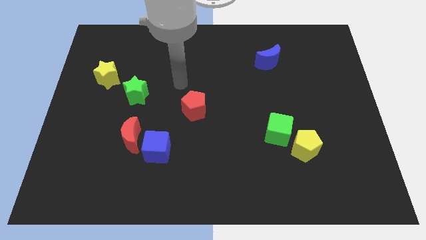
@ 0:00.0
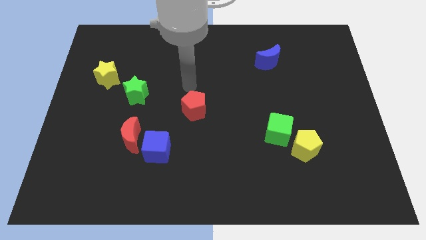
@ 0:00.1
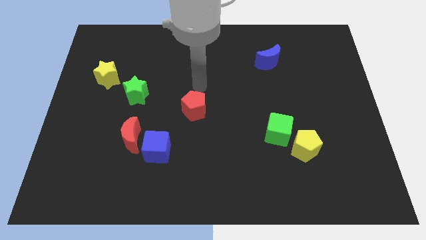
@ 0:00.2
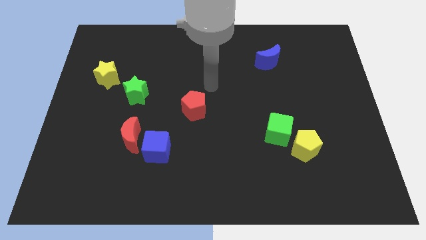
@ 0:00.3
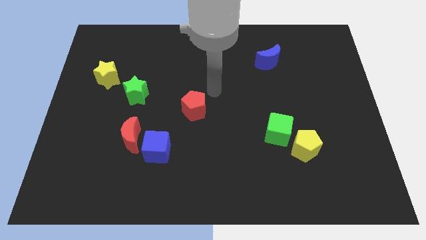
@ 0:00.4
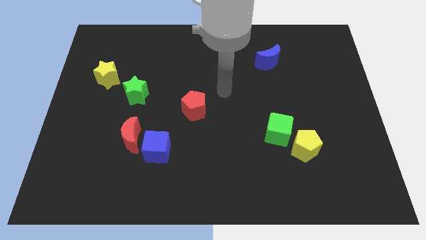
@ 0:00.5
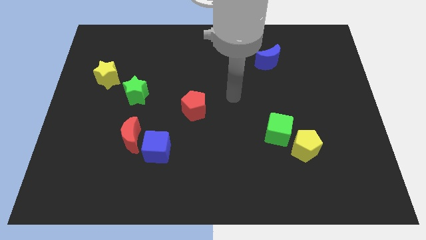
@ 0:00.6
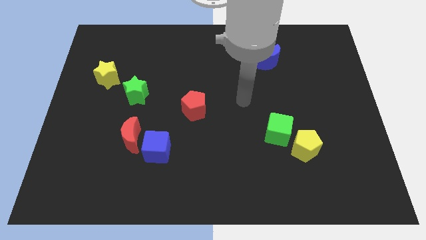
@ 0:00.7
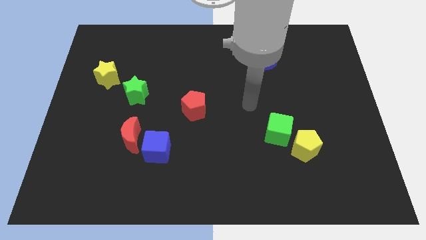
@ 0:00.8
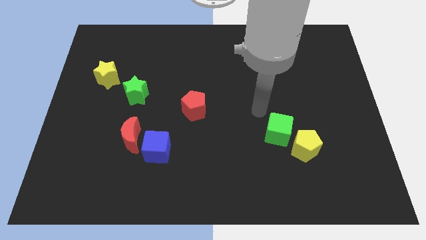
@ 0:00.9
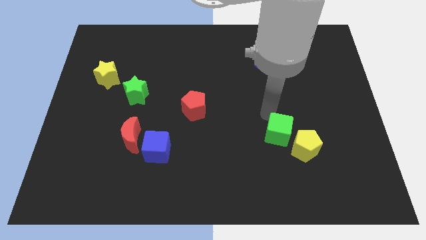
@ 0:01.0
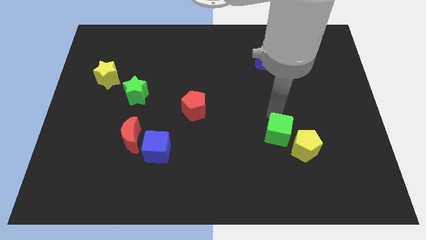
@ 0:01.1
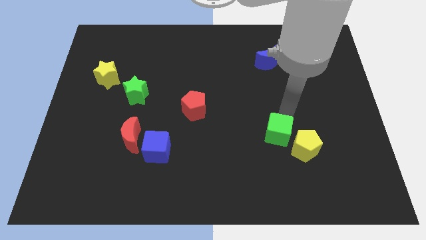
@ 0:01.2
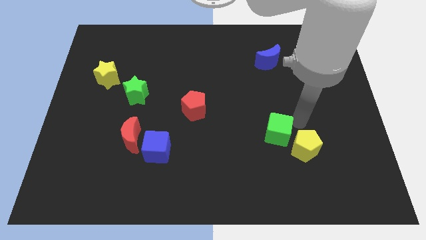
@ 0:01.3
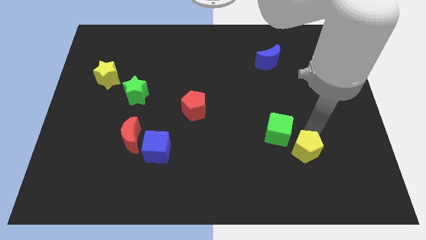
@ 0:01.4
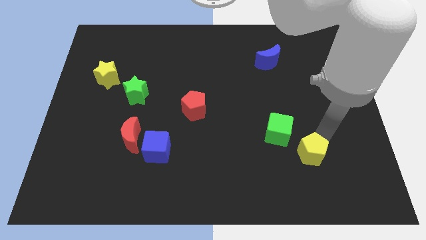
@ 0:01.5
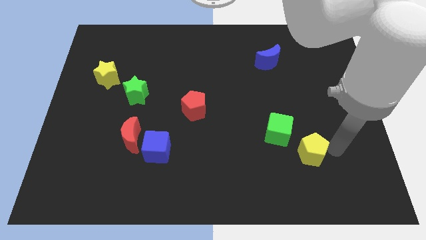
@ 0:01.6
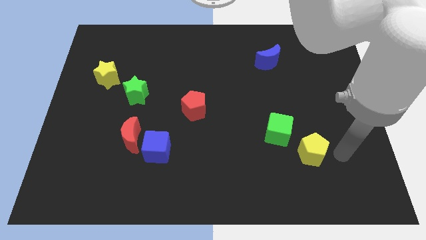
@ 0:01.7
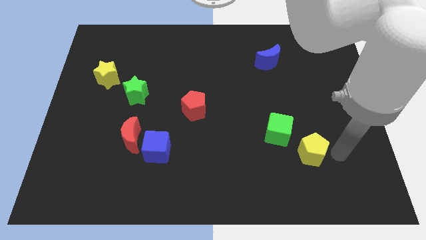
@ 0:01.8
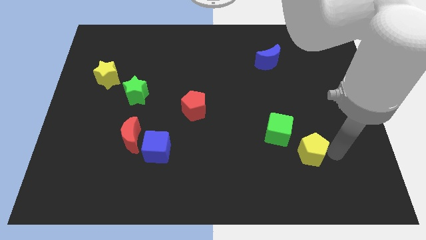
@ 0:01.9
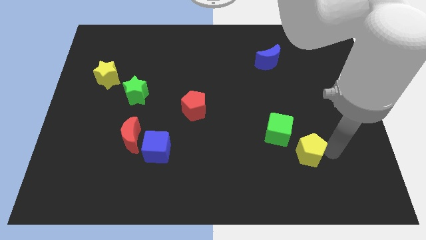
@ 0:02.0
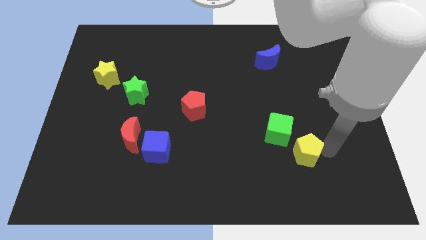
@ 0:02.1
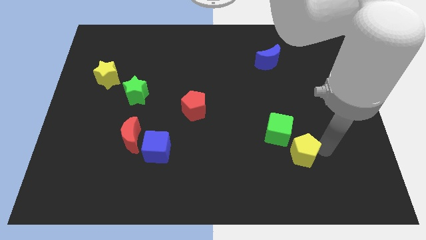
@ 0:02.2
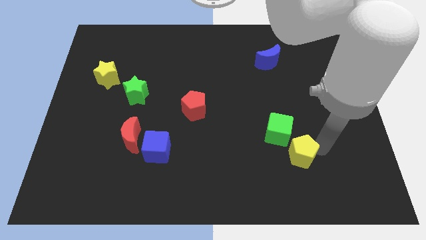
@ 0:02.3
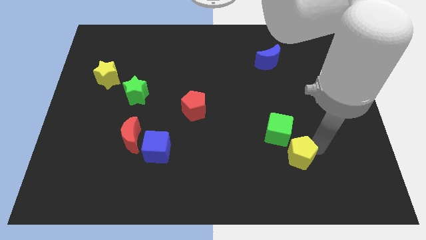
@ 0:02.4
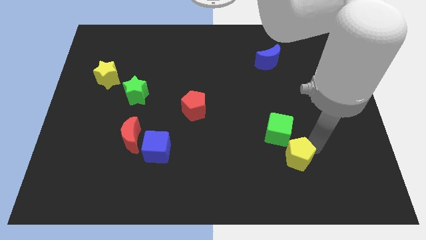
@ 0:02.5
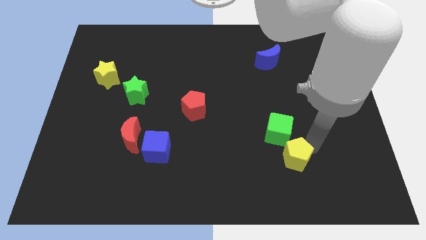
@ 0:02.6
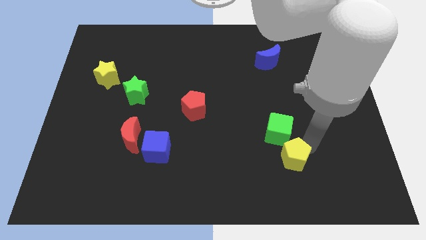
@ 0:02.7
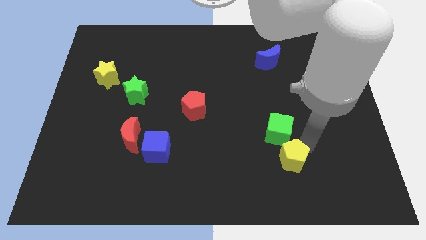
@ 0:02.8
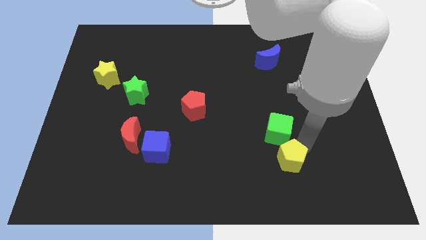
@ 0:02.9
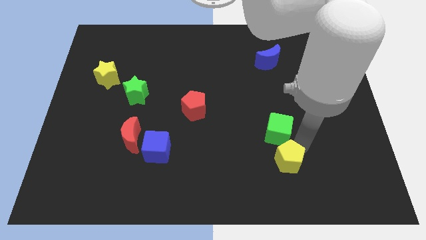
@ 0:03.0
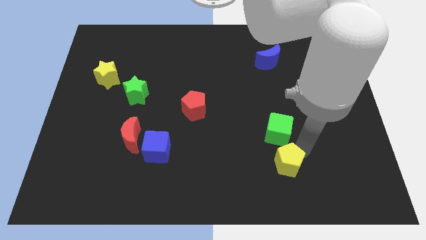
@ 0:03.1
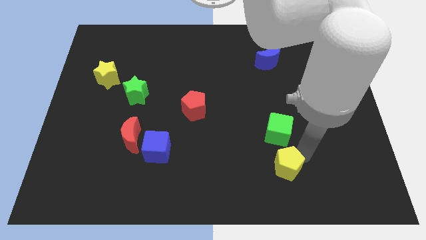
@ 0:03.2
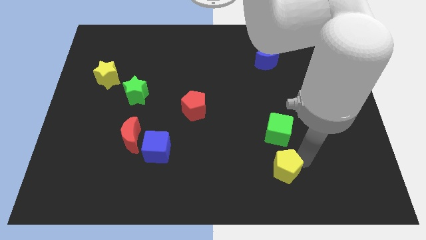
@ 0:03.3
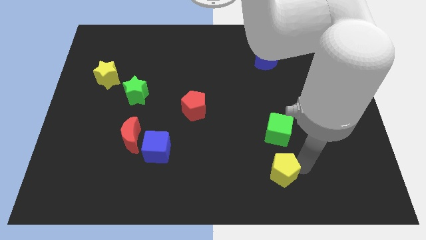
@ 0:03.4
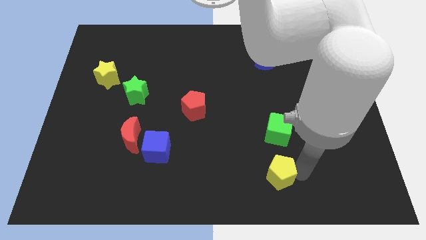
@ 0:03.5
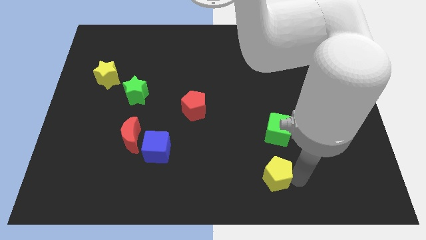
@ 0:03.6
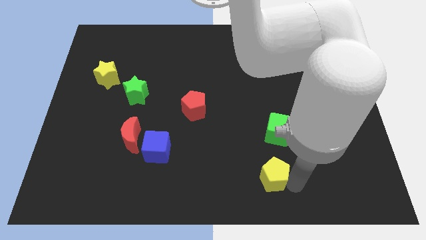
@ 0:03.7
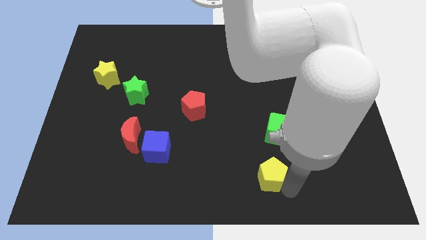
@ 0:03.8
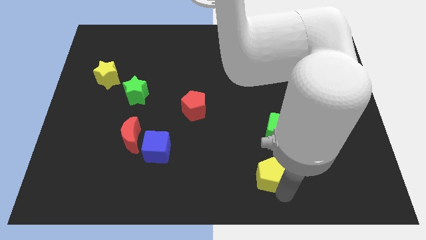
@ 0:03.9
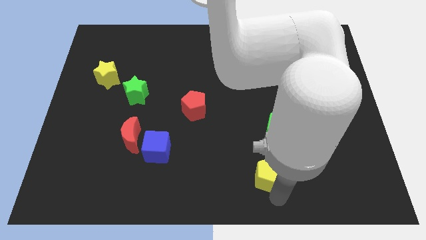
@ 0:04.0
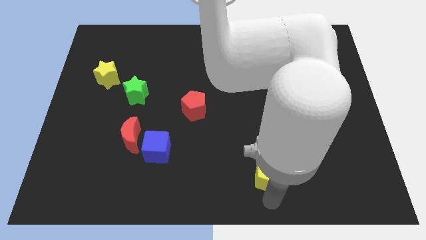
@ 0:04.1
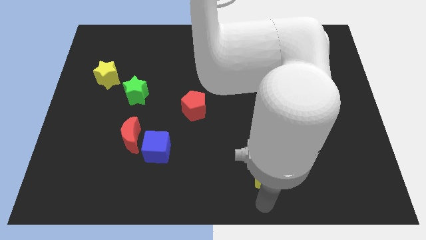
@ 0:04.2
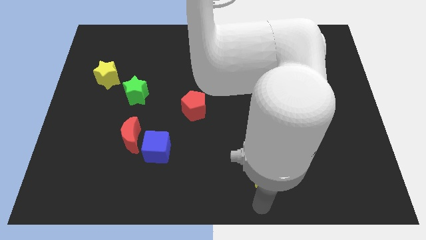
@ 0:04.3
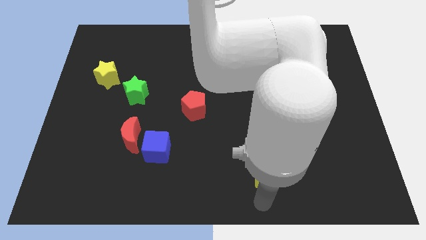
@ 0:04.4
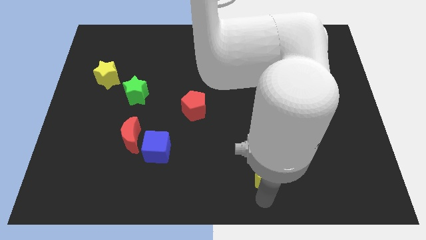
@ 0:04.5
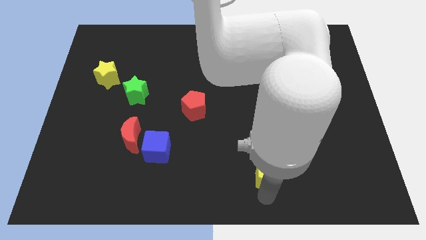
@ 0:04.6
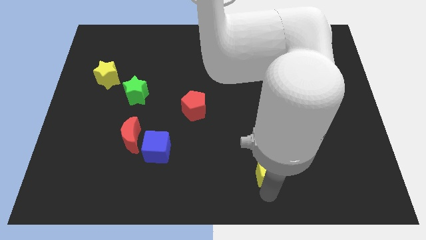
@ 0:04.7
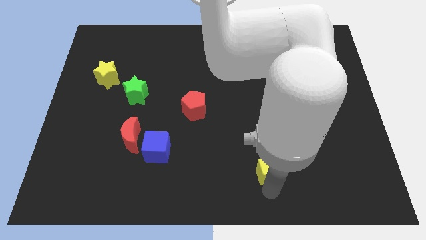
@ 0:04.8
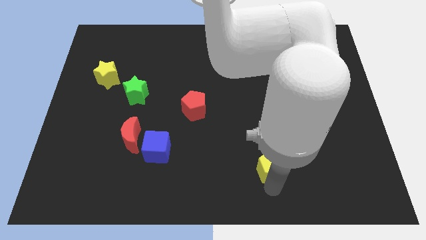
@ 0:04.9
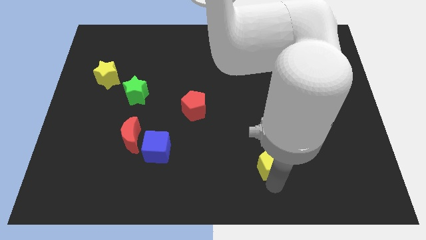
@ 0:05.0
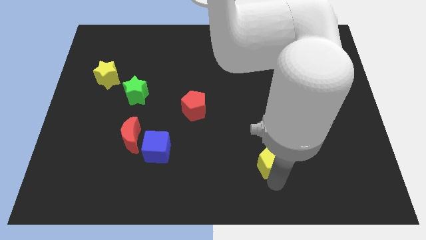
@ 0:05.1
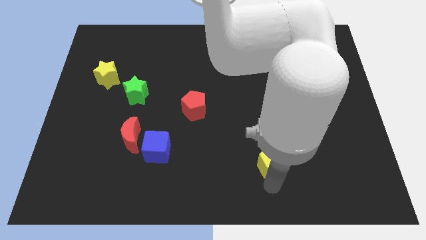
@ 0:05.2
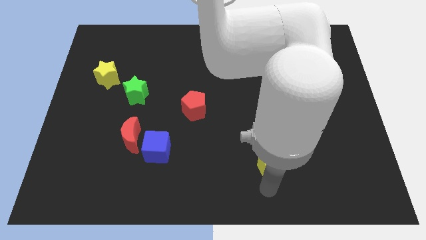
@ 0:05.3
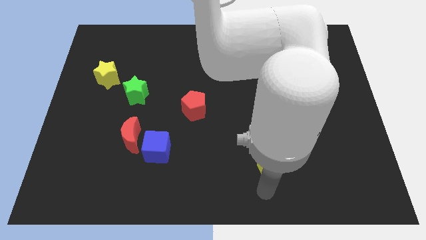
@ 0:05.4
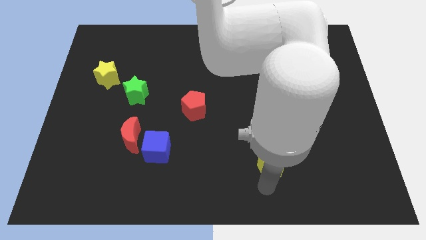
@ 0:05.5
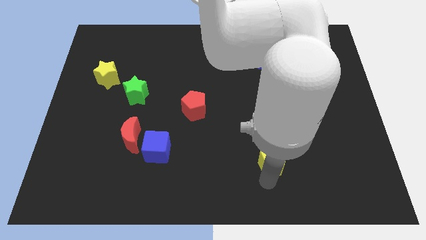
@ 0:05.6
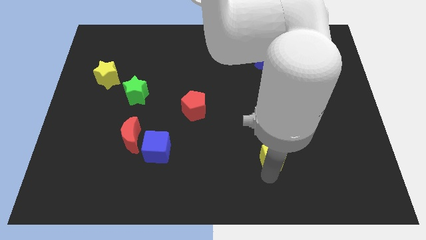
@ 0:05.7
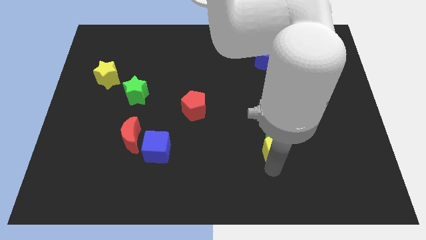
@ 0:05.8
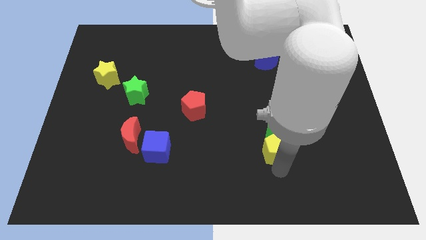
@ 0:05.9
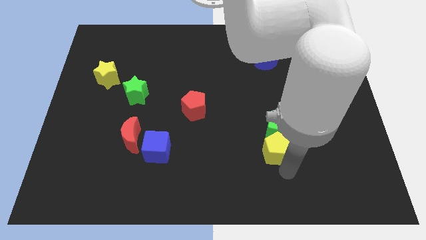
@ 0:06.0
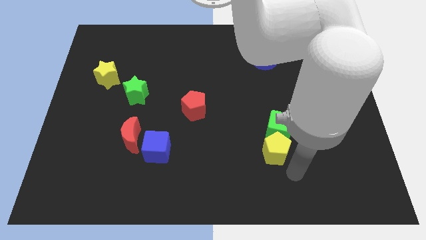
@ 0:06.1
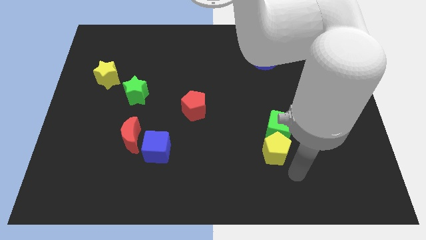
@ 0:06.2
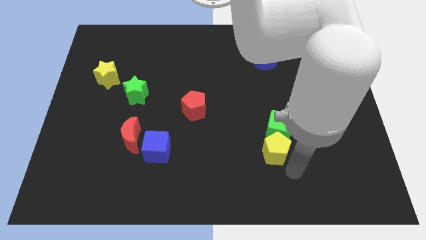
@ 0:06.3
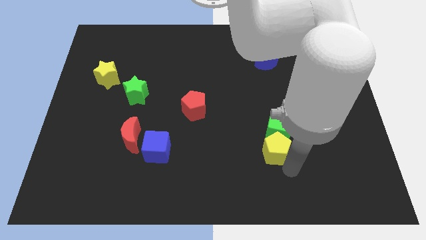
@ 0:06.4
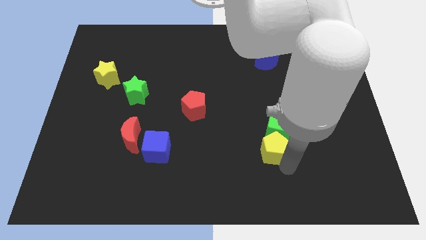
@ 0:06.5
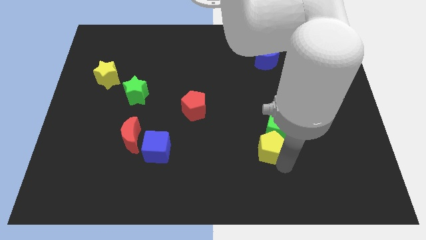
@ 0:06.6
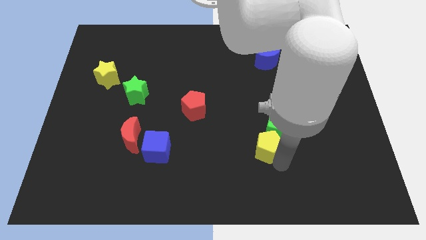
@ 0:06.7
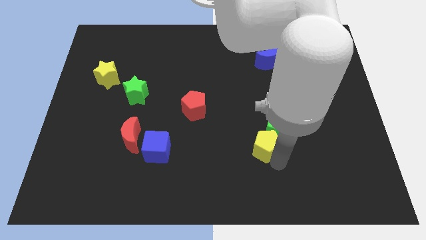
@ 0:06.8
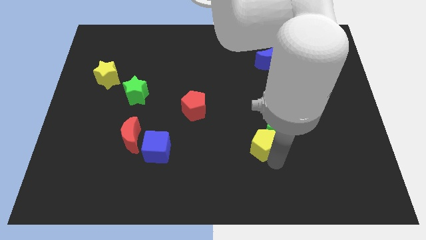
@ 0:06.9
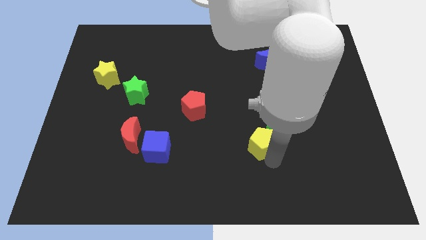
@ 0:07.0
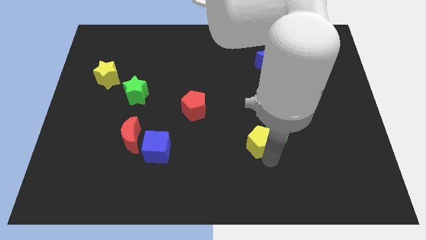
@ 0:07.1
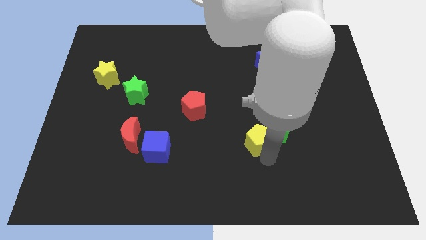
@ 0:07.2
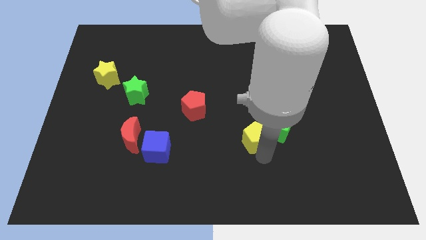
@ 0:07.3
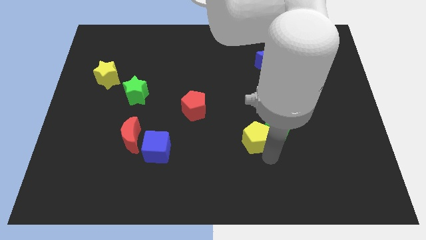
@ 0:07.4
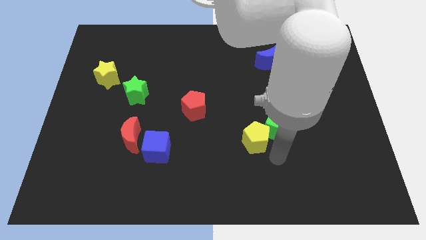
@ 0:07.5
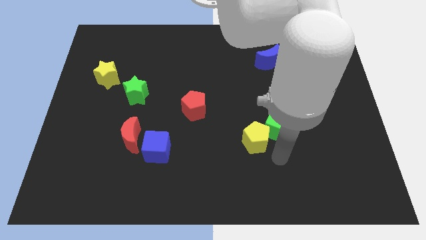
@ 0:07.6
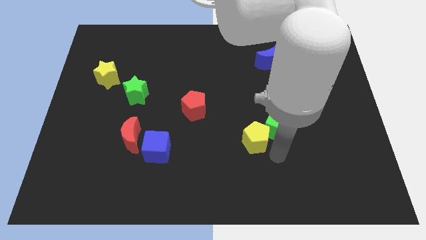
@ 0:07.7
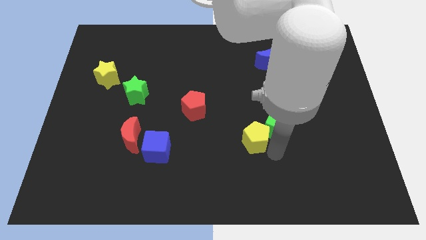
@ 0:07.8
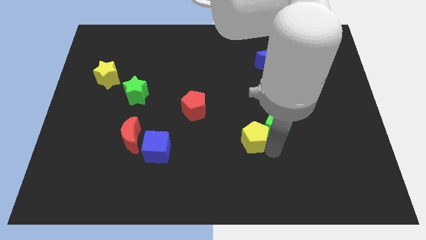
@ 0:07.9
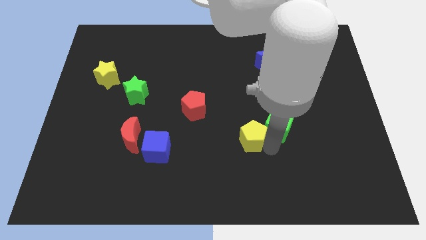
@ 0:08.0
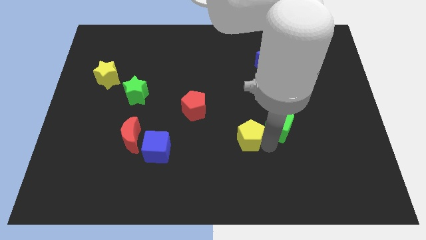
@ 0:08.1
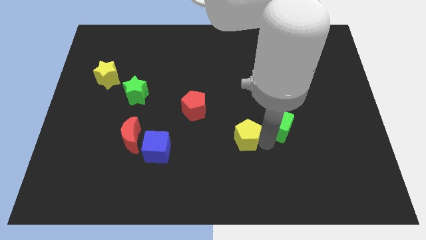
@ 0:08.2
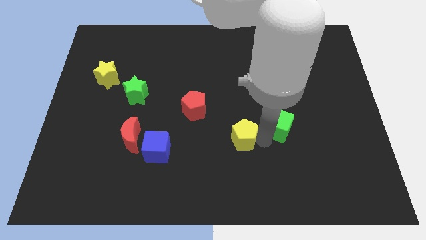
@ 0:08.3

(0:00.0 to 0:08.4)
put the yellow pentagon to the center
